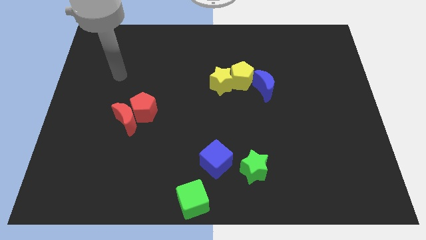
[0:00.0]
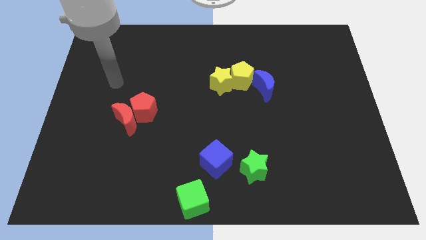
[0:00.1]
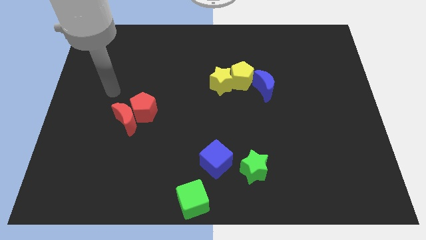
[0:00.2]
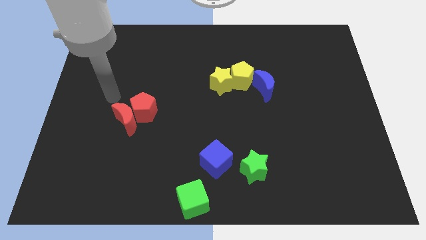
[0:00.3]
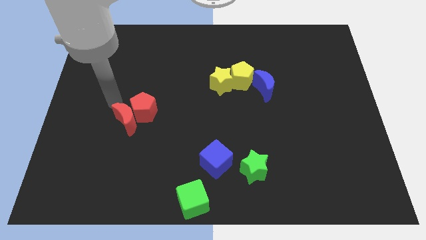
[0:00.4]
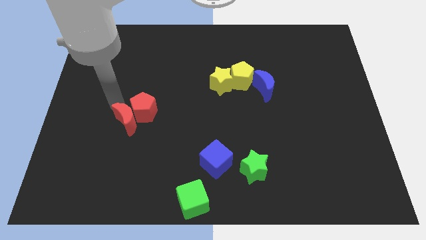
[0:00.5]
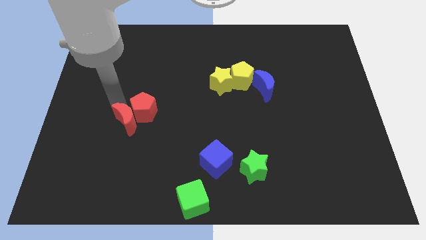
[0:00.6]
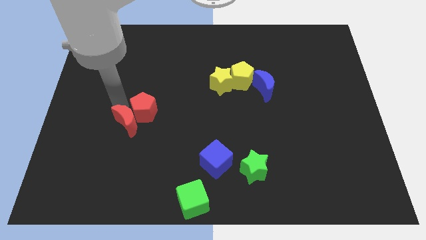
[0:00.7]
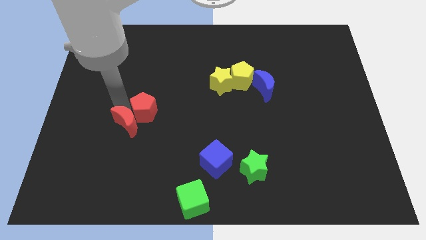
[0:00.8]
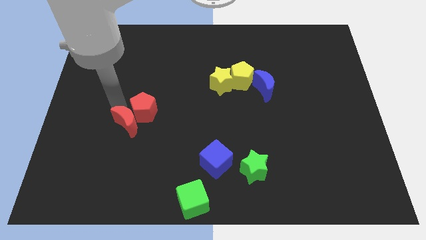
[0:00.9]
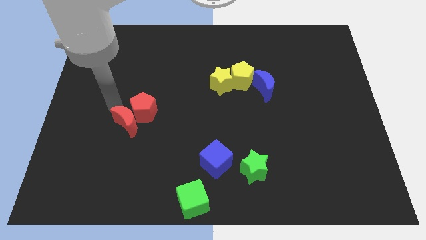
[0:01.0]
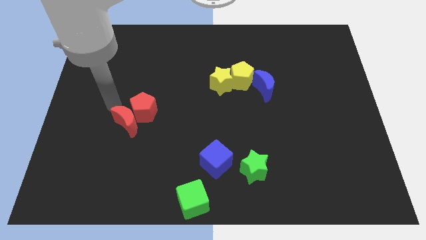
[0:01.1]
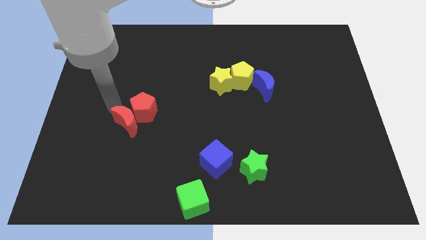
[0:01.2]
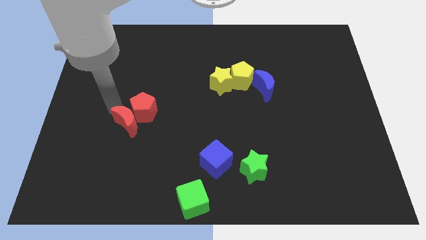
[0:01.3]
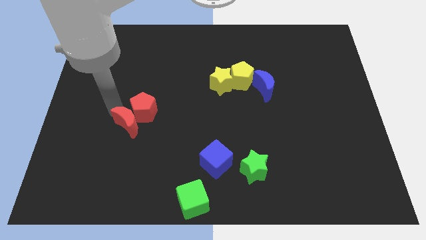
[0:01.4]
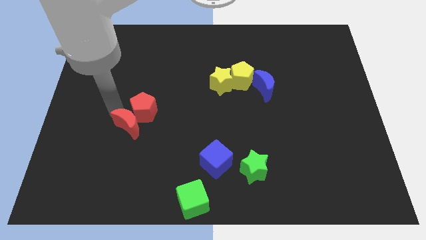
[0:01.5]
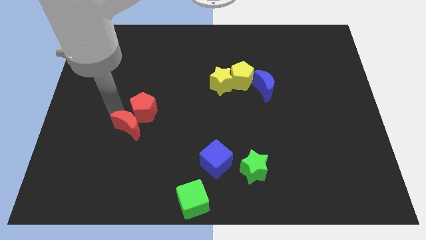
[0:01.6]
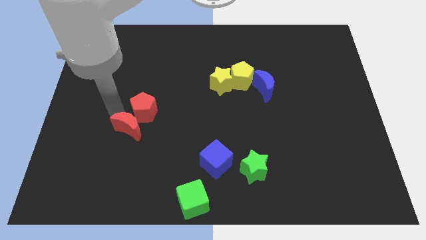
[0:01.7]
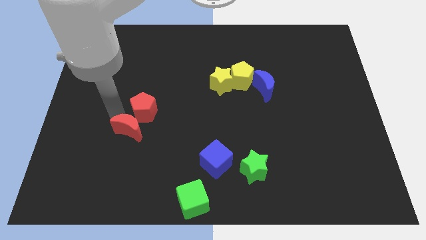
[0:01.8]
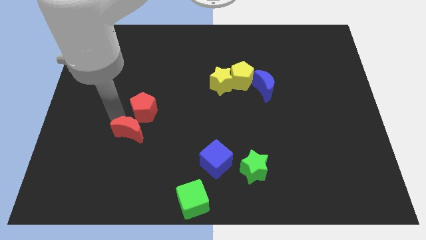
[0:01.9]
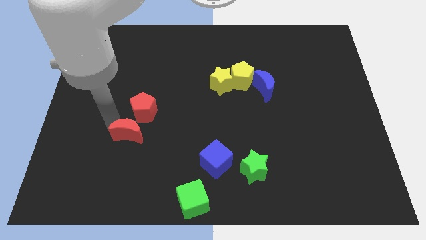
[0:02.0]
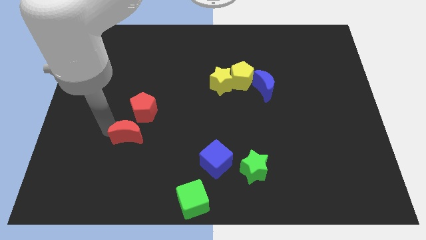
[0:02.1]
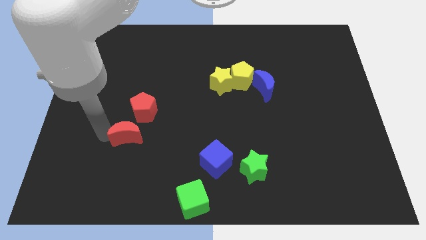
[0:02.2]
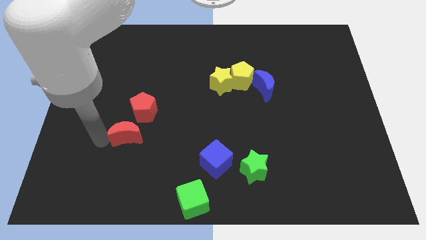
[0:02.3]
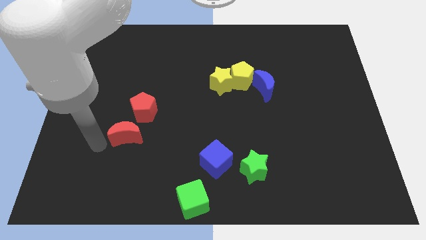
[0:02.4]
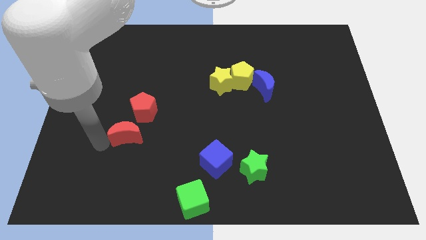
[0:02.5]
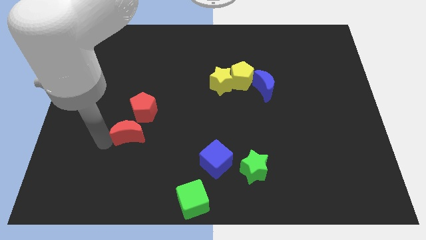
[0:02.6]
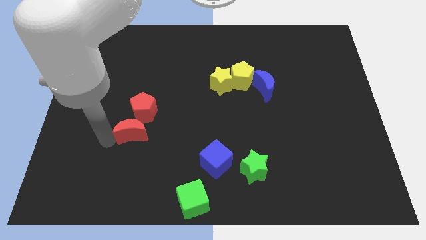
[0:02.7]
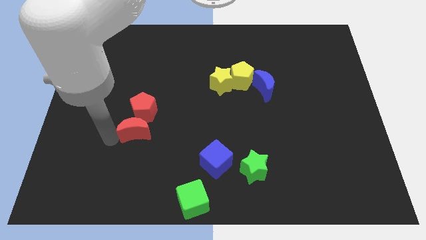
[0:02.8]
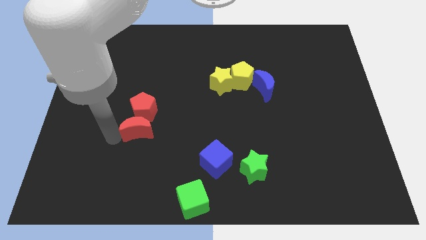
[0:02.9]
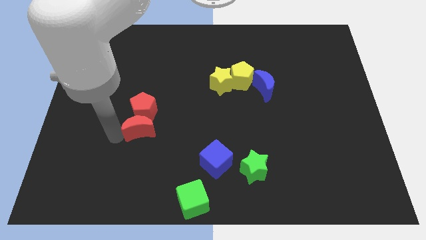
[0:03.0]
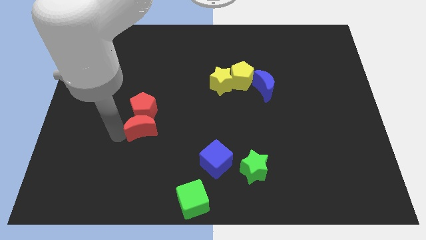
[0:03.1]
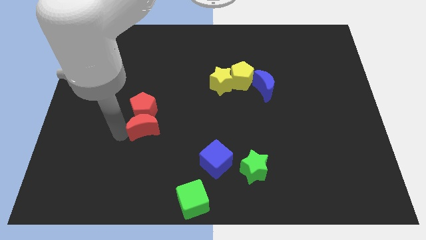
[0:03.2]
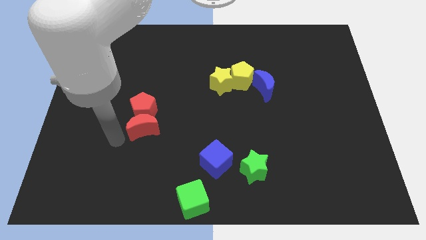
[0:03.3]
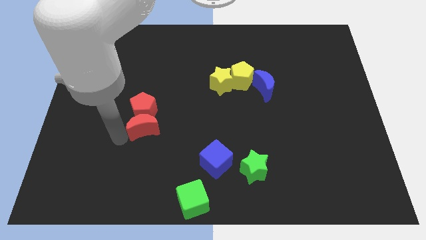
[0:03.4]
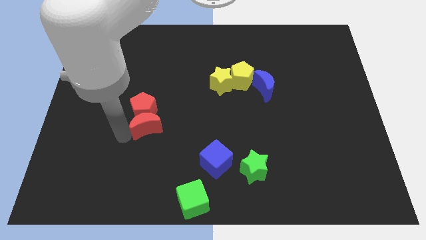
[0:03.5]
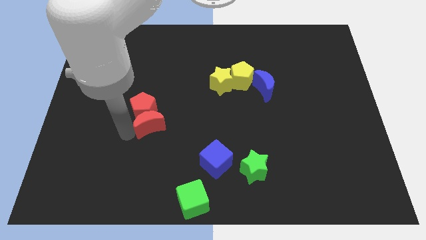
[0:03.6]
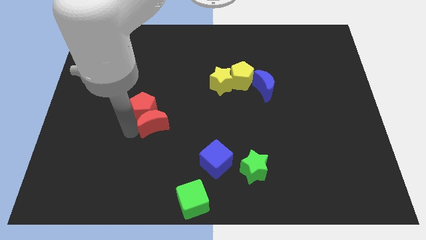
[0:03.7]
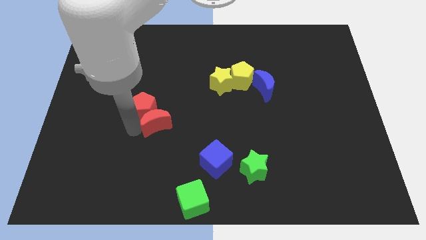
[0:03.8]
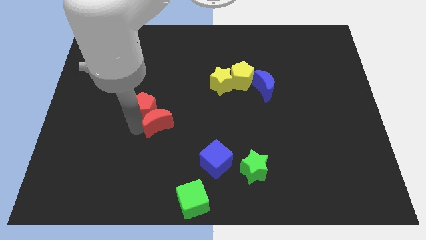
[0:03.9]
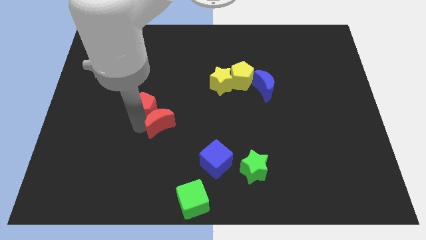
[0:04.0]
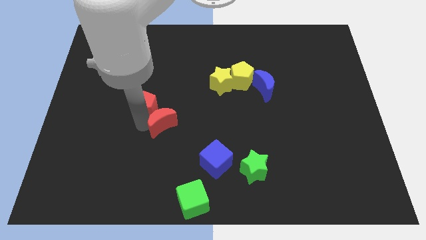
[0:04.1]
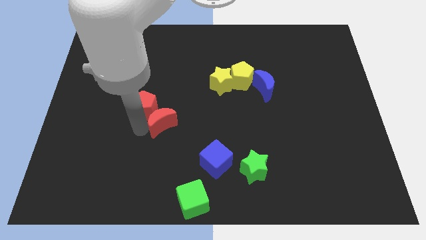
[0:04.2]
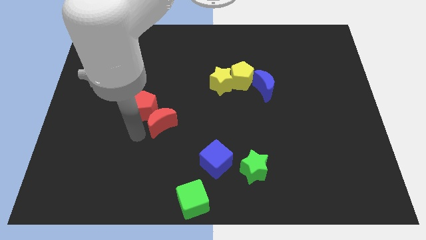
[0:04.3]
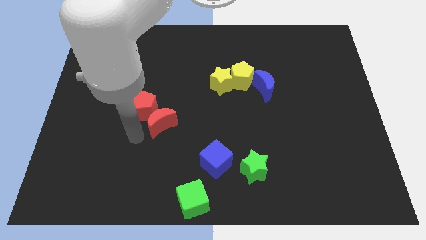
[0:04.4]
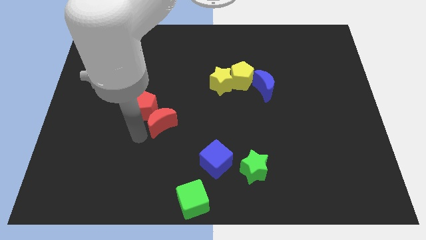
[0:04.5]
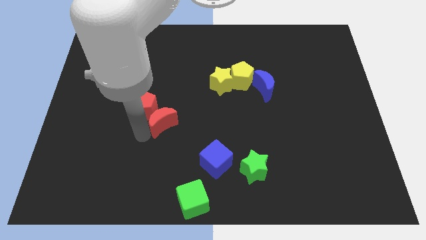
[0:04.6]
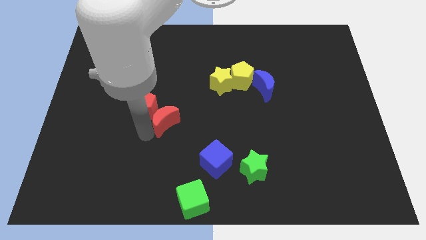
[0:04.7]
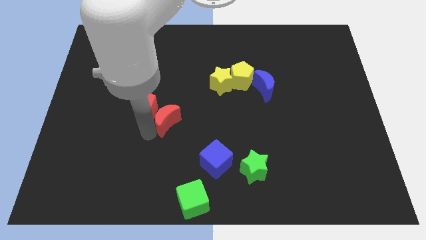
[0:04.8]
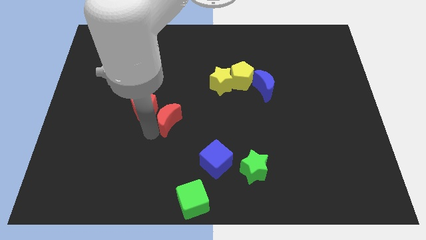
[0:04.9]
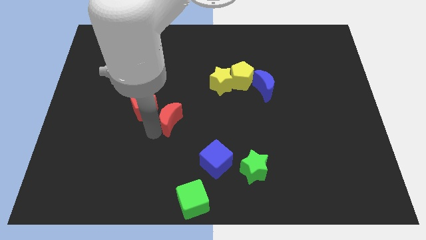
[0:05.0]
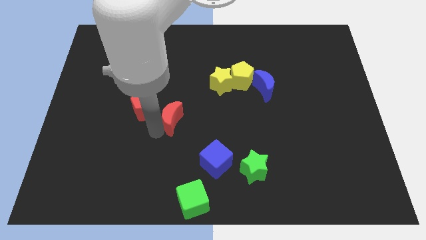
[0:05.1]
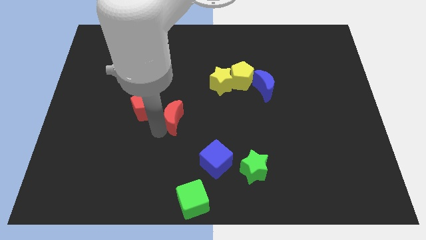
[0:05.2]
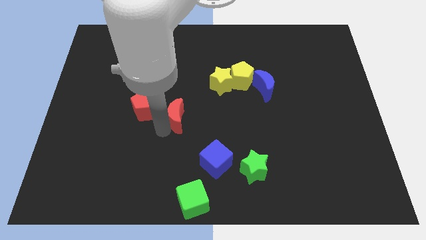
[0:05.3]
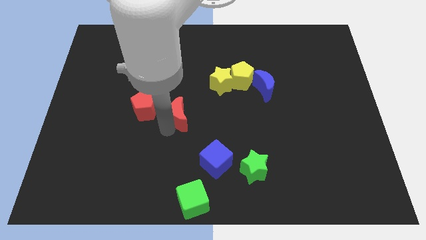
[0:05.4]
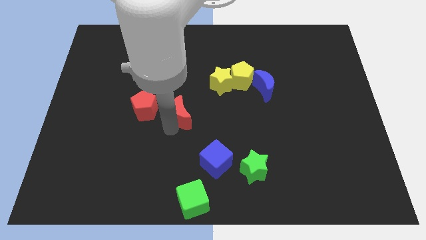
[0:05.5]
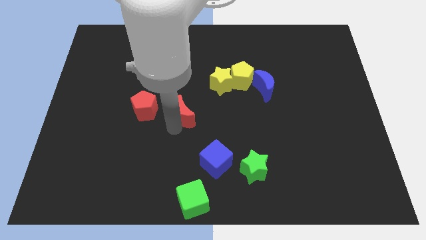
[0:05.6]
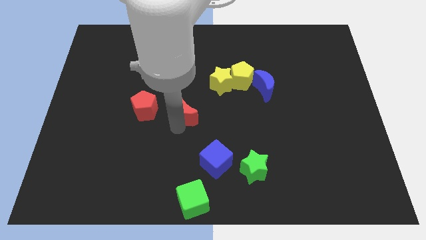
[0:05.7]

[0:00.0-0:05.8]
move the red moon to the bottom left side of the yellow star

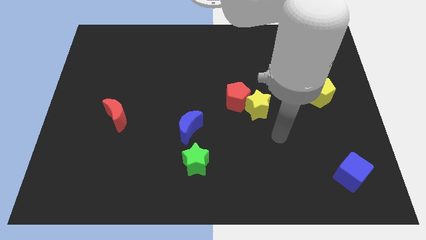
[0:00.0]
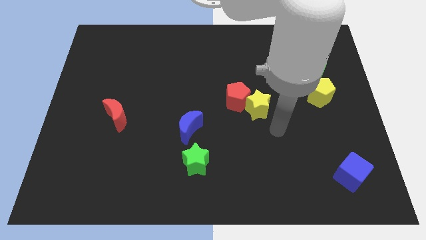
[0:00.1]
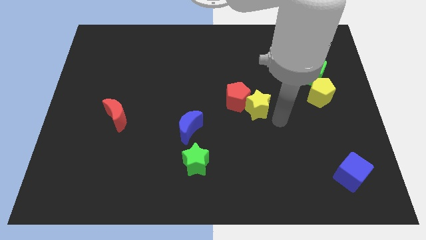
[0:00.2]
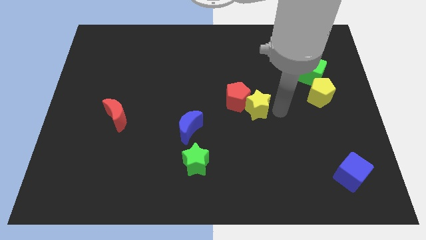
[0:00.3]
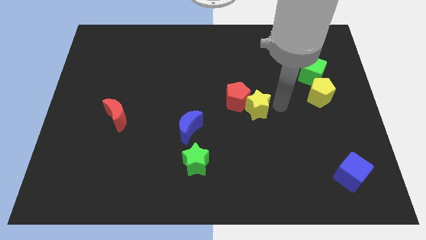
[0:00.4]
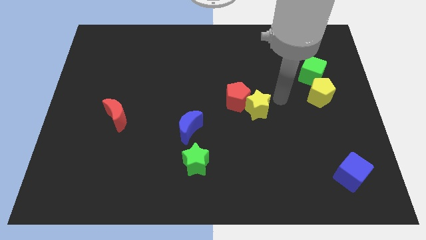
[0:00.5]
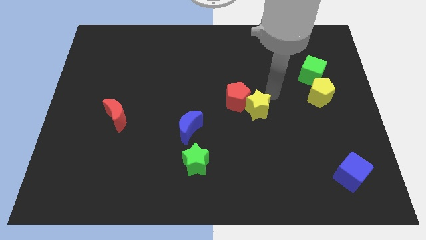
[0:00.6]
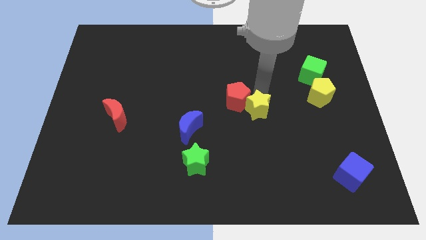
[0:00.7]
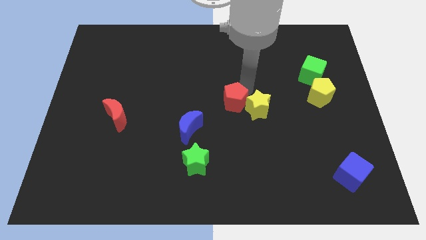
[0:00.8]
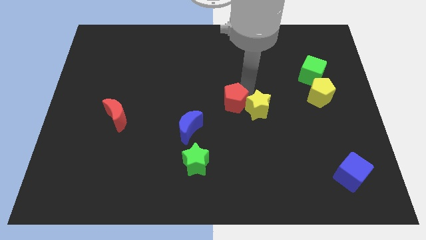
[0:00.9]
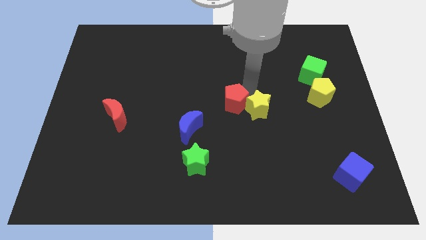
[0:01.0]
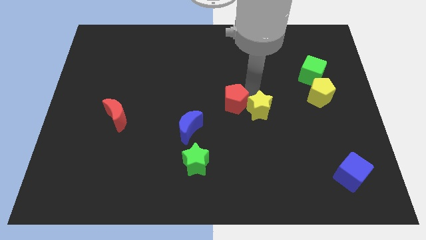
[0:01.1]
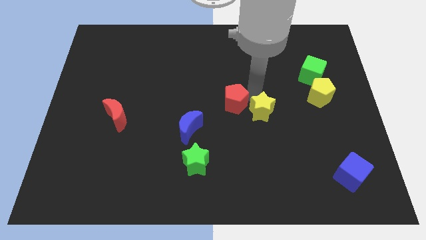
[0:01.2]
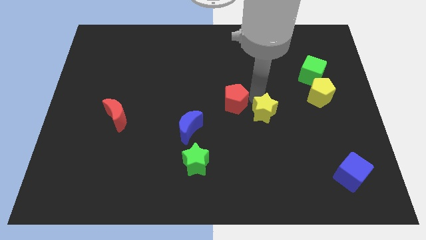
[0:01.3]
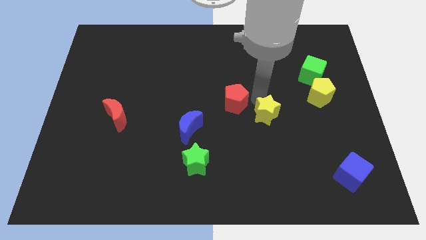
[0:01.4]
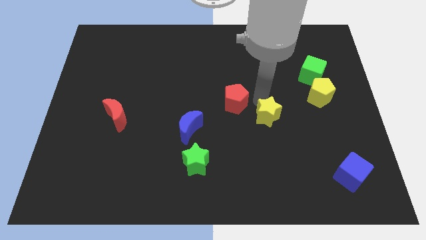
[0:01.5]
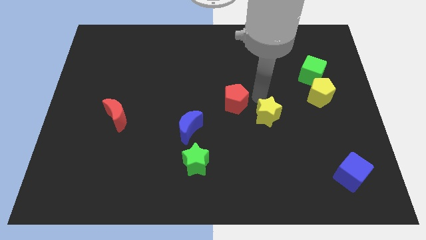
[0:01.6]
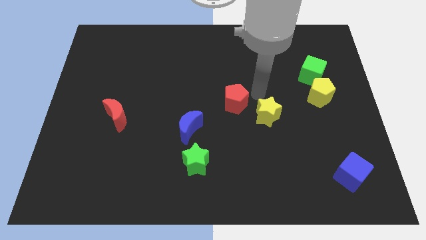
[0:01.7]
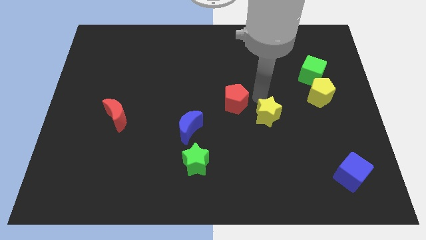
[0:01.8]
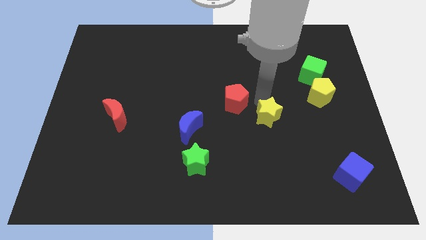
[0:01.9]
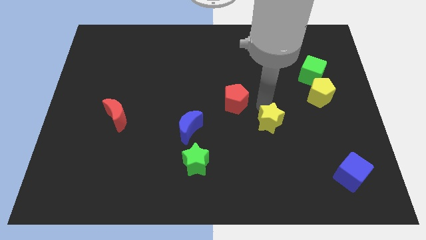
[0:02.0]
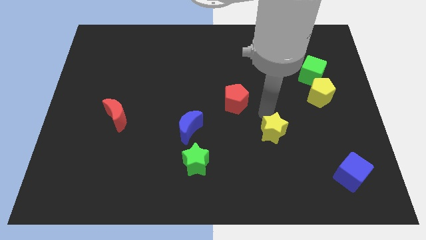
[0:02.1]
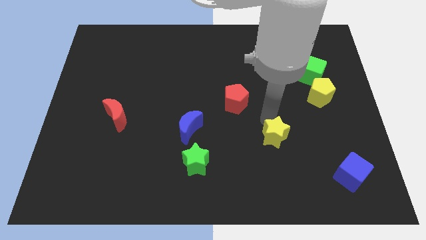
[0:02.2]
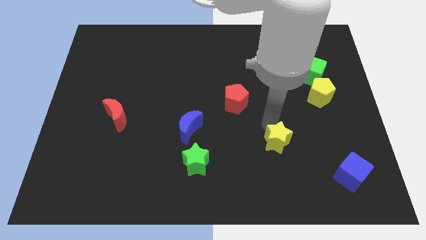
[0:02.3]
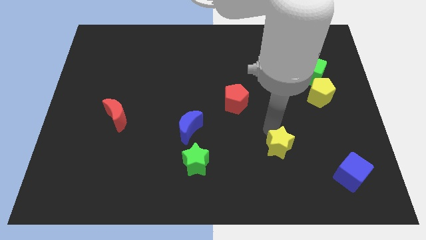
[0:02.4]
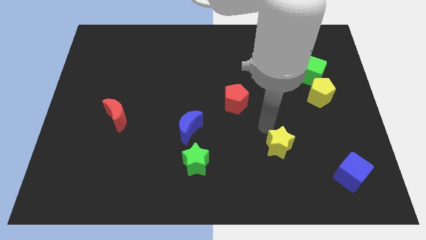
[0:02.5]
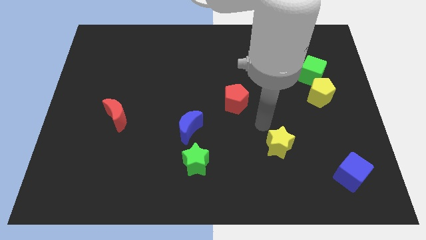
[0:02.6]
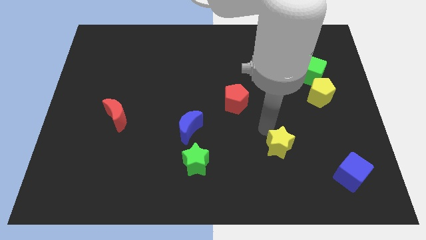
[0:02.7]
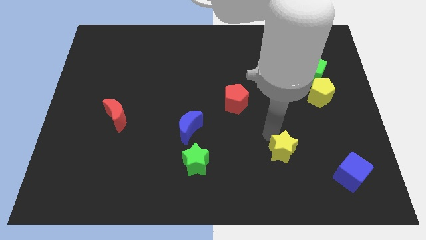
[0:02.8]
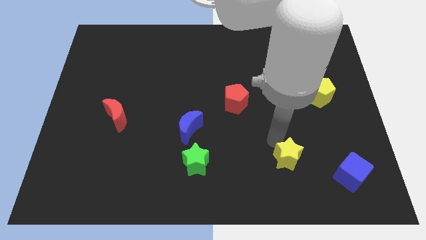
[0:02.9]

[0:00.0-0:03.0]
put the yellow star to the left of the blue cube
